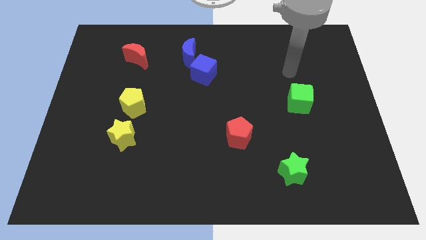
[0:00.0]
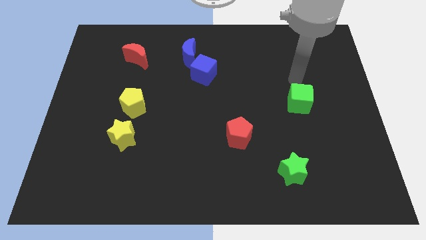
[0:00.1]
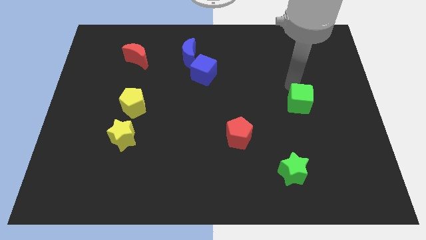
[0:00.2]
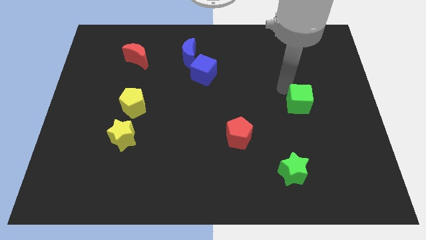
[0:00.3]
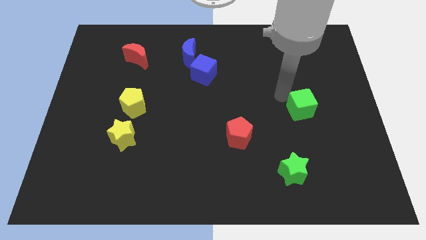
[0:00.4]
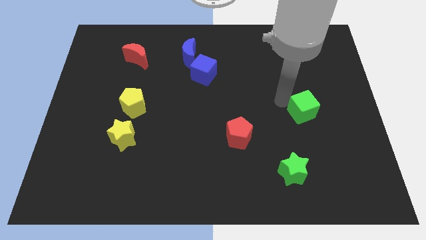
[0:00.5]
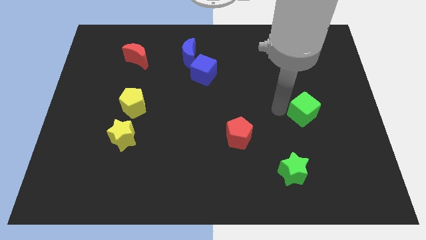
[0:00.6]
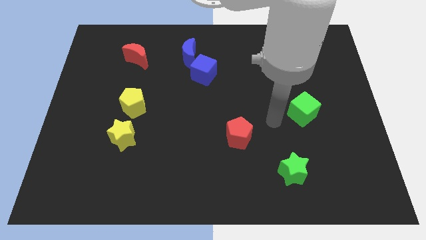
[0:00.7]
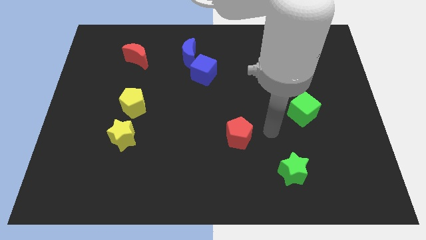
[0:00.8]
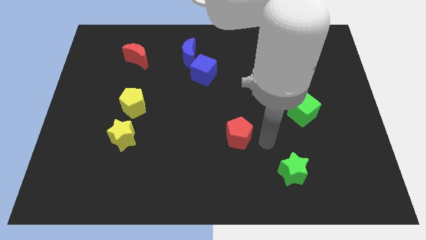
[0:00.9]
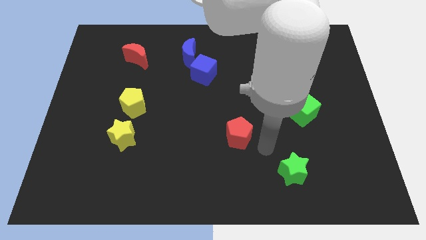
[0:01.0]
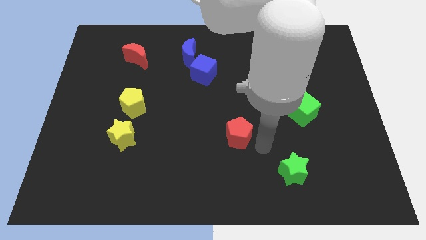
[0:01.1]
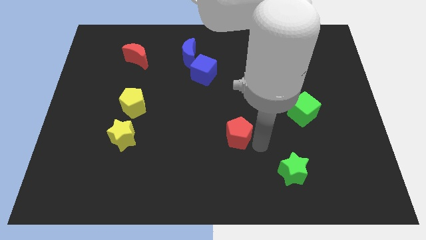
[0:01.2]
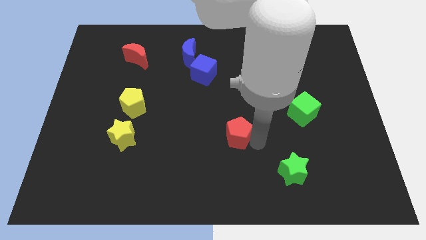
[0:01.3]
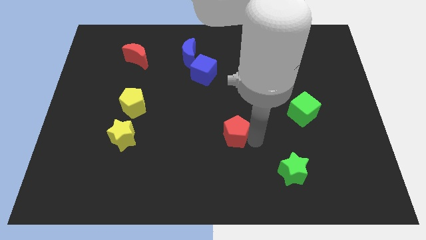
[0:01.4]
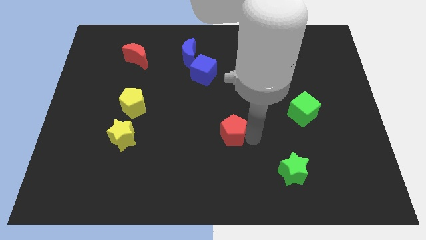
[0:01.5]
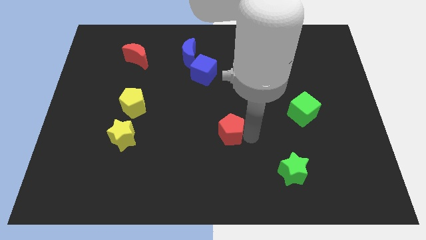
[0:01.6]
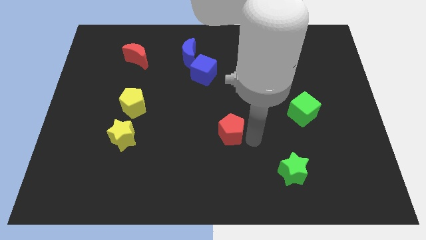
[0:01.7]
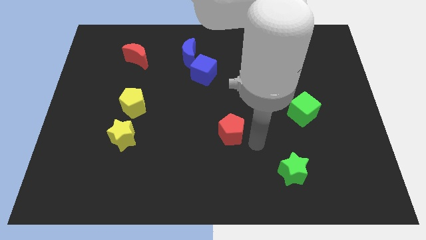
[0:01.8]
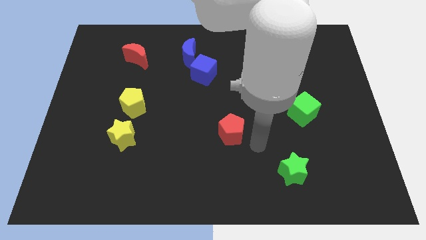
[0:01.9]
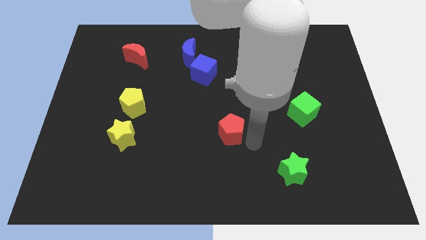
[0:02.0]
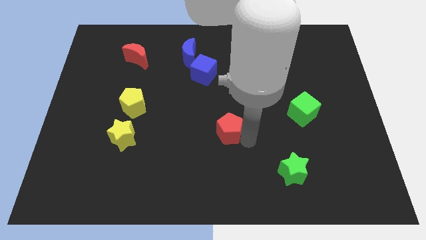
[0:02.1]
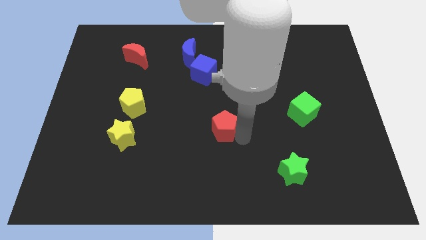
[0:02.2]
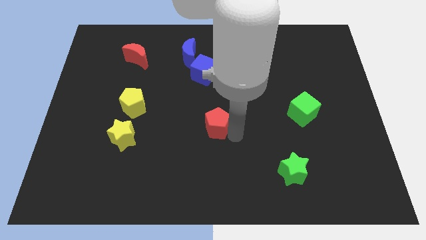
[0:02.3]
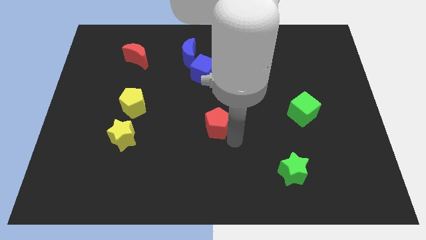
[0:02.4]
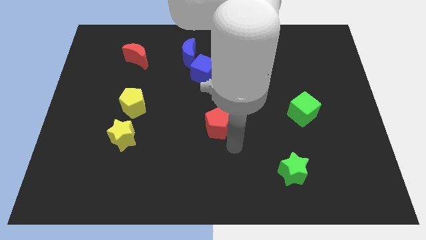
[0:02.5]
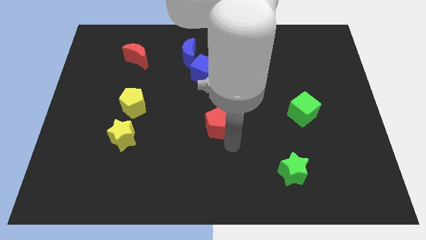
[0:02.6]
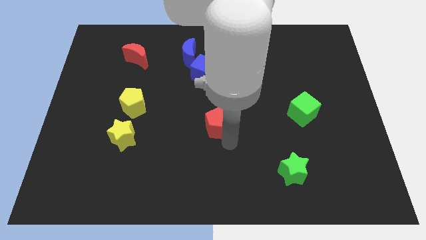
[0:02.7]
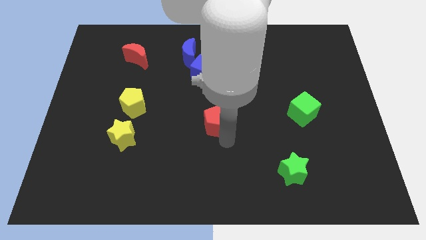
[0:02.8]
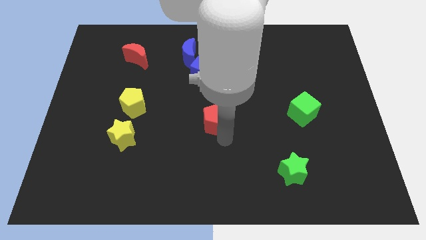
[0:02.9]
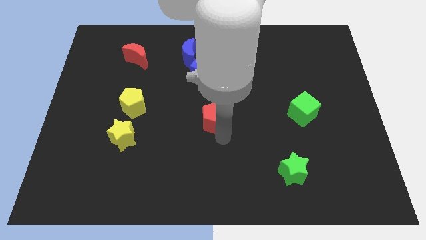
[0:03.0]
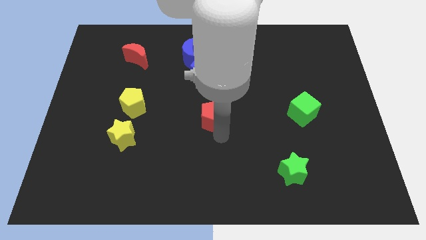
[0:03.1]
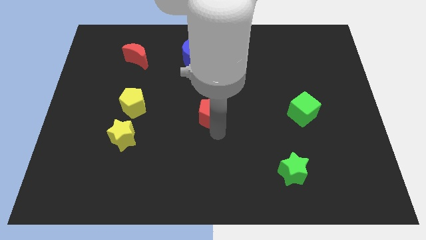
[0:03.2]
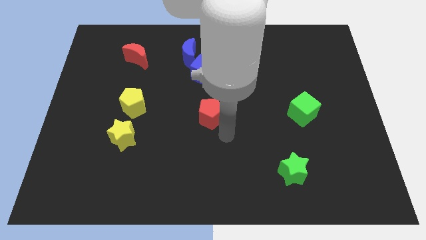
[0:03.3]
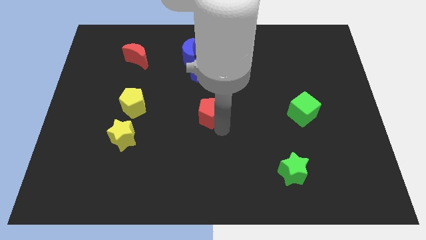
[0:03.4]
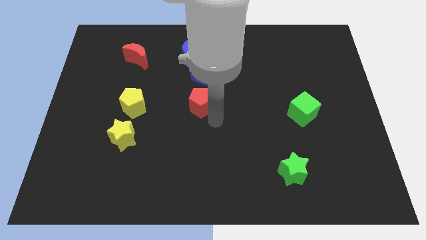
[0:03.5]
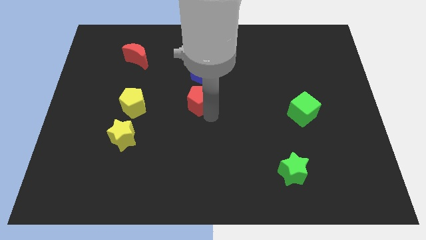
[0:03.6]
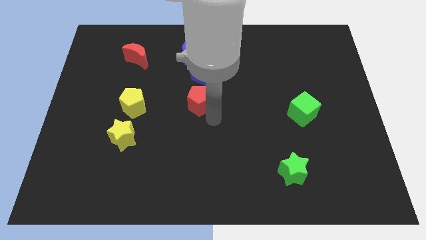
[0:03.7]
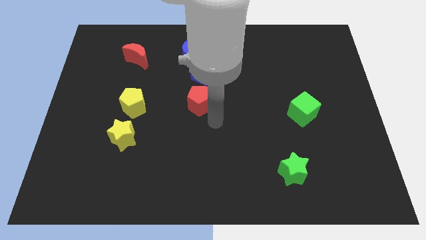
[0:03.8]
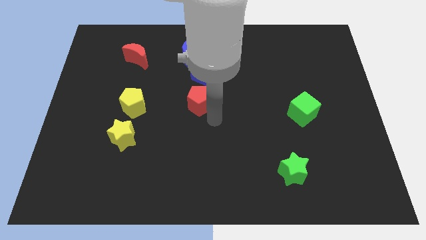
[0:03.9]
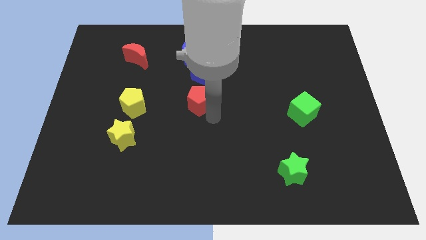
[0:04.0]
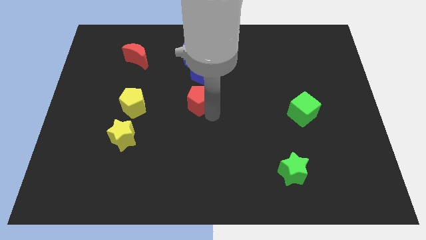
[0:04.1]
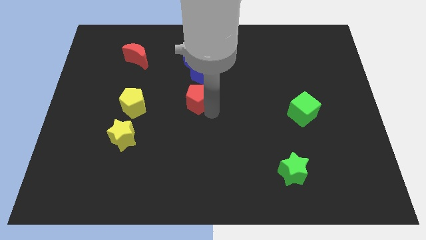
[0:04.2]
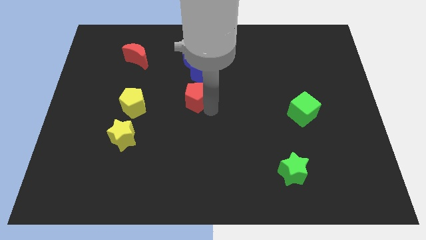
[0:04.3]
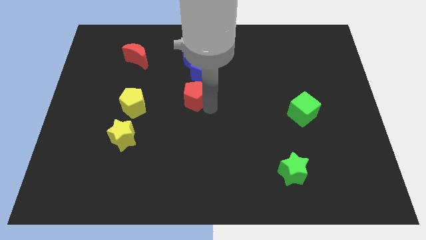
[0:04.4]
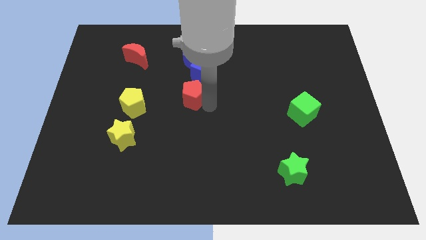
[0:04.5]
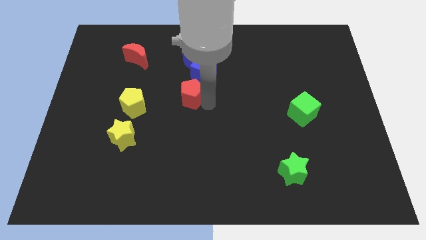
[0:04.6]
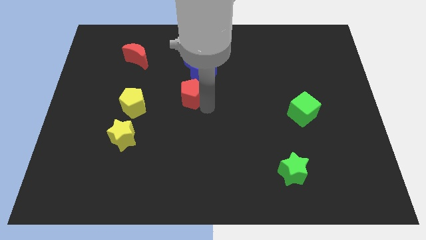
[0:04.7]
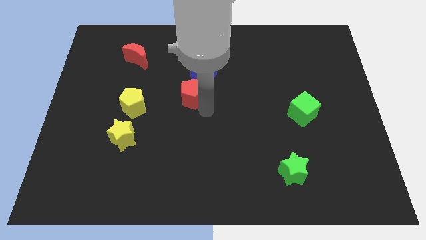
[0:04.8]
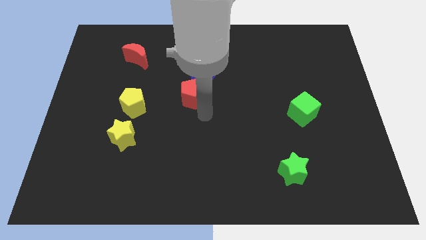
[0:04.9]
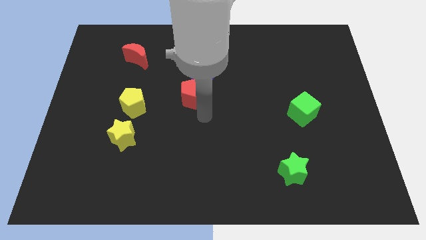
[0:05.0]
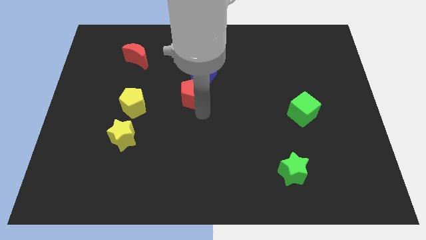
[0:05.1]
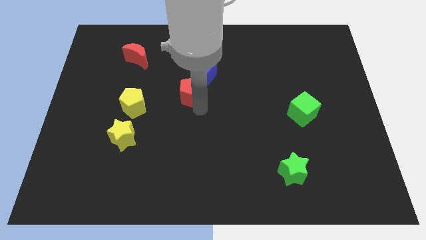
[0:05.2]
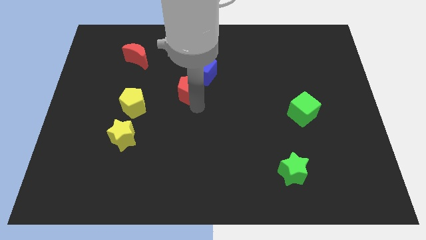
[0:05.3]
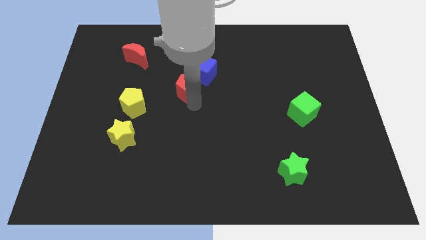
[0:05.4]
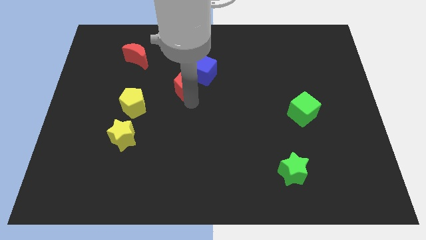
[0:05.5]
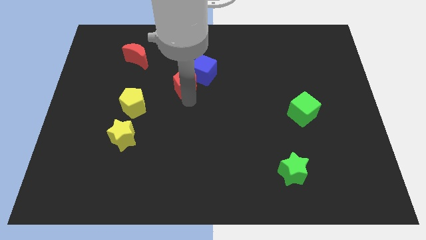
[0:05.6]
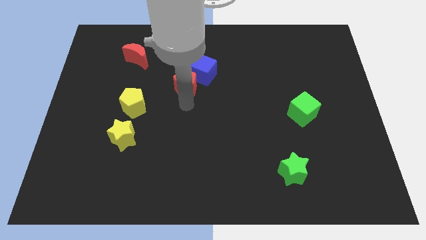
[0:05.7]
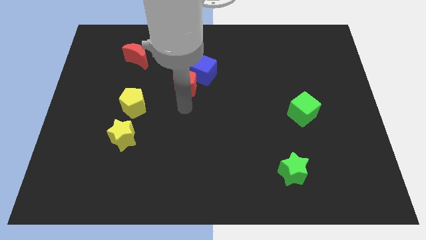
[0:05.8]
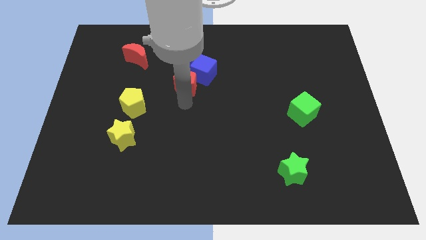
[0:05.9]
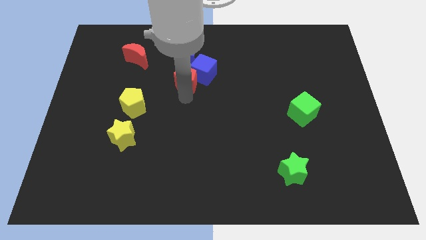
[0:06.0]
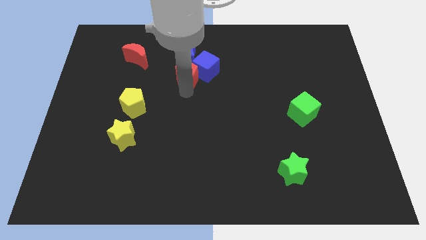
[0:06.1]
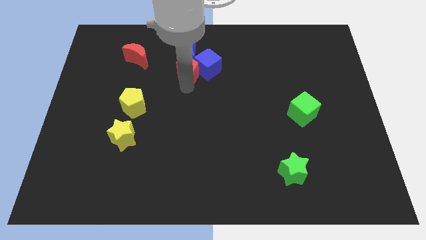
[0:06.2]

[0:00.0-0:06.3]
move the red pentagon close to the blue moon

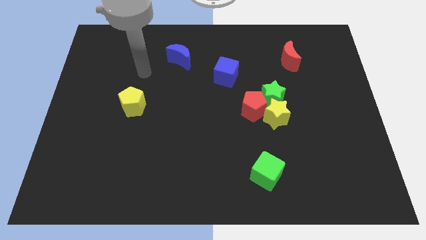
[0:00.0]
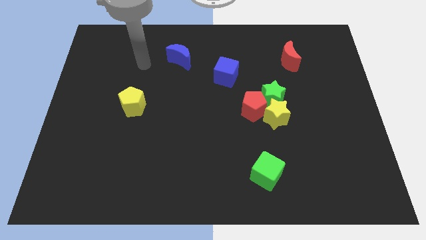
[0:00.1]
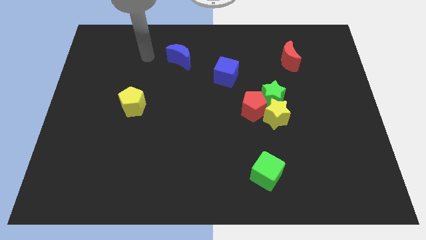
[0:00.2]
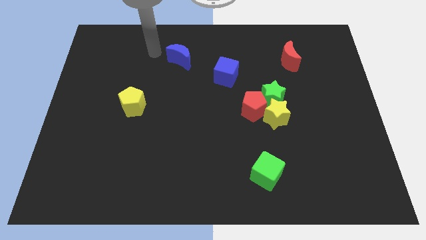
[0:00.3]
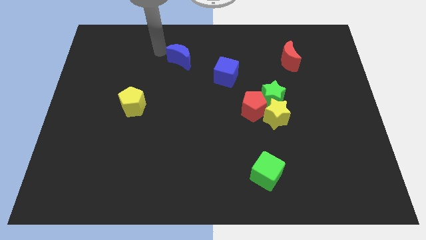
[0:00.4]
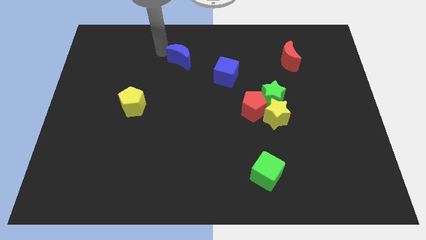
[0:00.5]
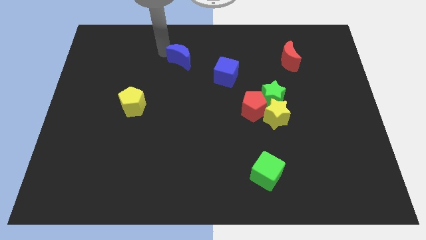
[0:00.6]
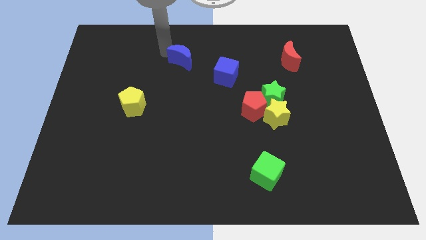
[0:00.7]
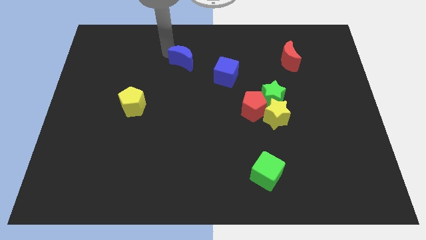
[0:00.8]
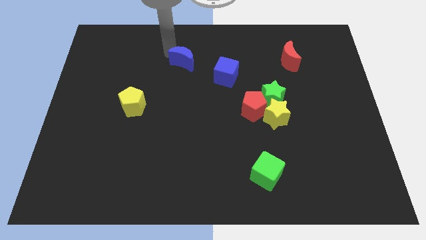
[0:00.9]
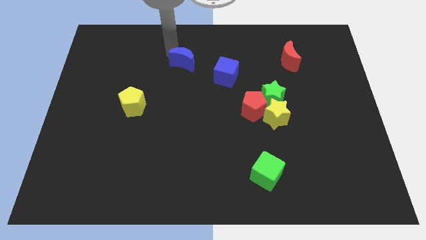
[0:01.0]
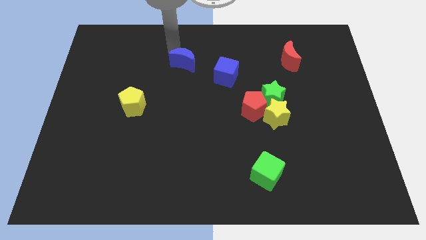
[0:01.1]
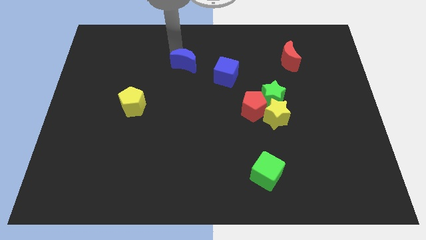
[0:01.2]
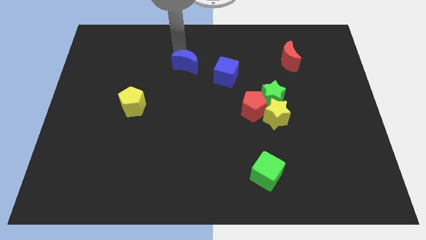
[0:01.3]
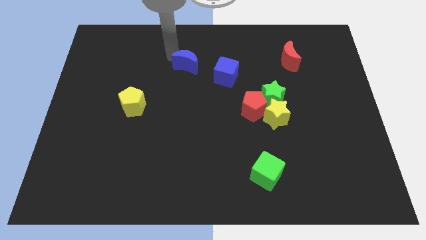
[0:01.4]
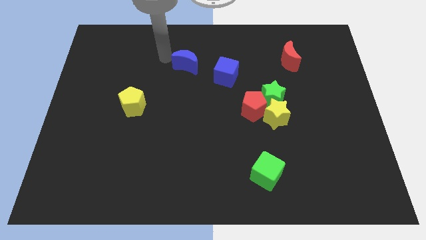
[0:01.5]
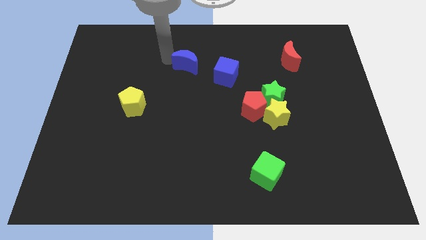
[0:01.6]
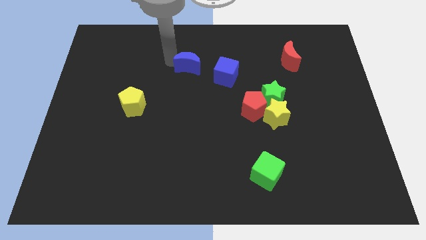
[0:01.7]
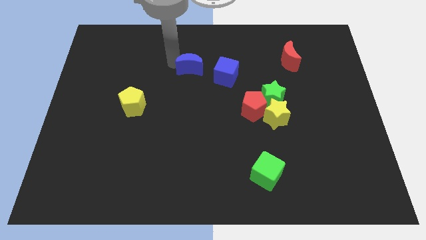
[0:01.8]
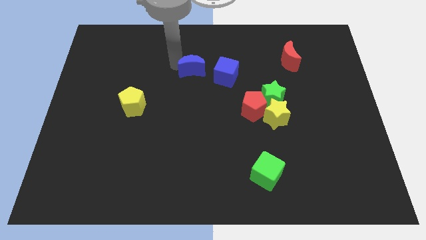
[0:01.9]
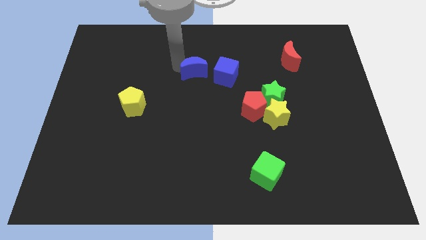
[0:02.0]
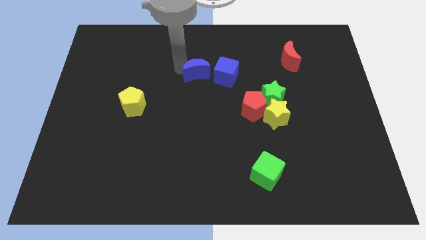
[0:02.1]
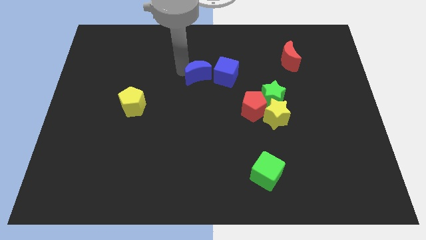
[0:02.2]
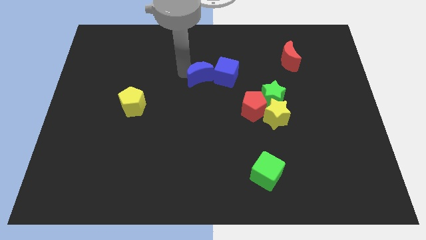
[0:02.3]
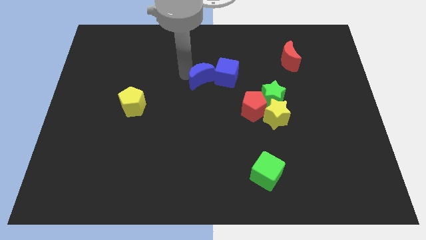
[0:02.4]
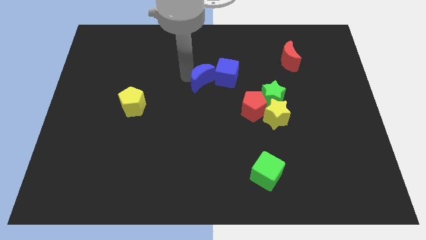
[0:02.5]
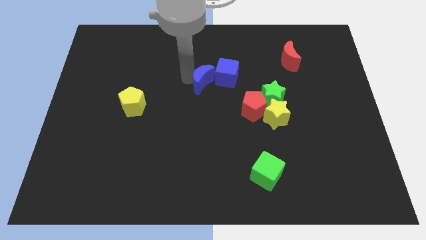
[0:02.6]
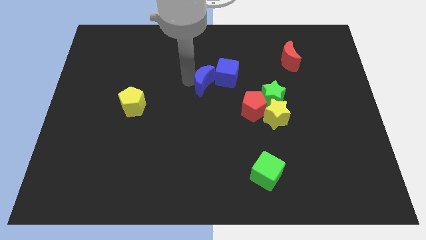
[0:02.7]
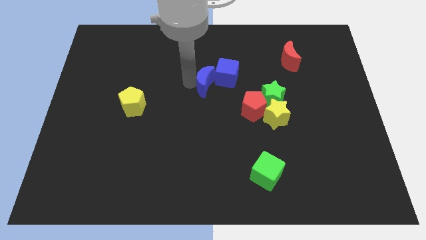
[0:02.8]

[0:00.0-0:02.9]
slide the blue moon close to the blue cube
